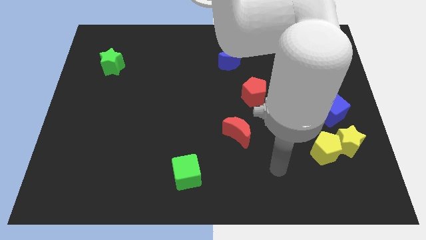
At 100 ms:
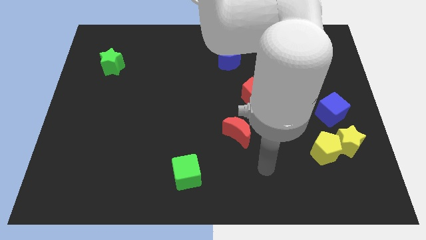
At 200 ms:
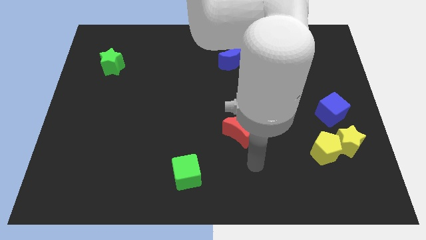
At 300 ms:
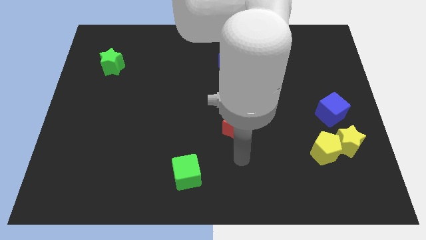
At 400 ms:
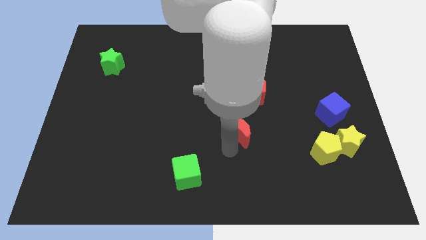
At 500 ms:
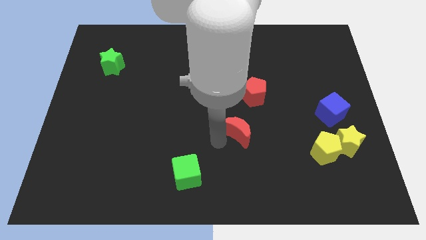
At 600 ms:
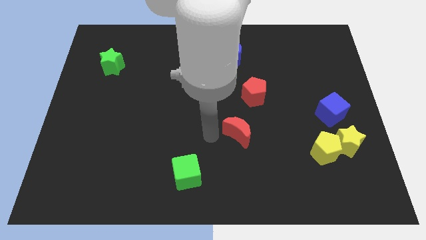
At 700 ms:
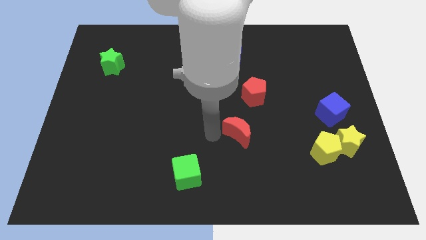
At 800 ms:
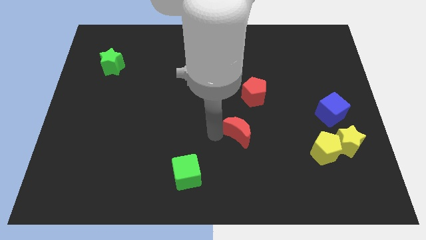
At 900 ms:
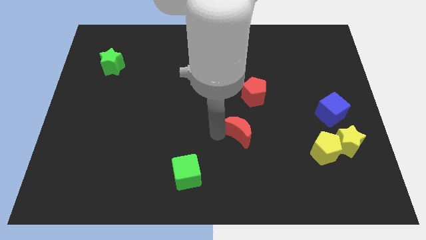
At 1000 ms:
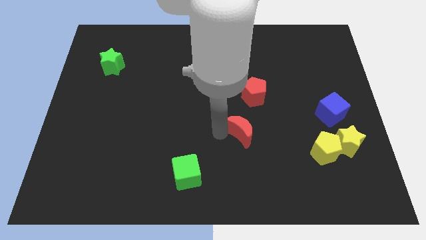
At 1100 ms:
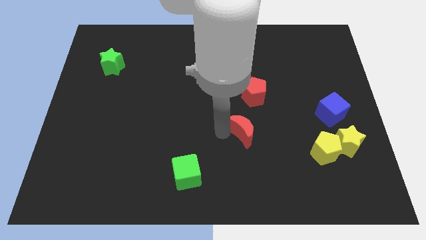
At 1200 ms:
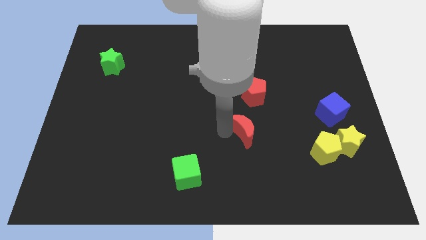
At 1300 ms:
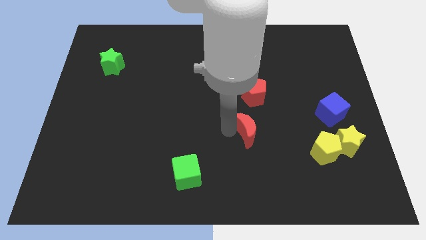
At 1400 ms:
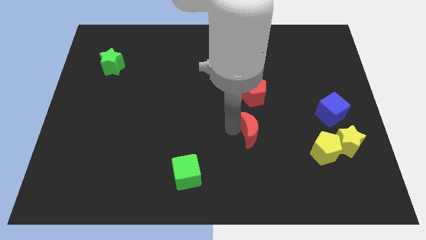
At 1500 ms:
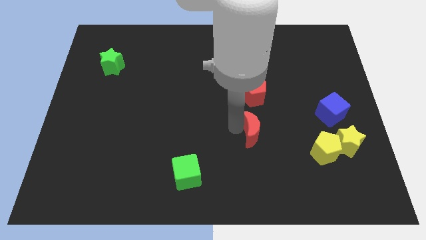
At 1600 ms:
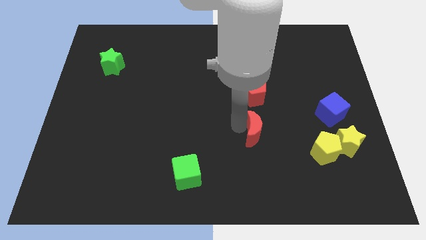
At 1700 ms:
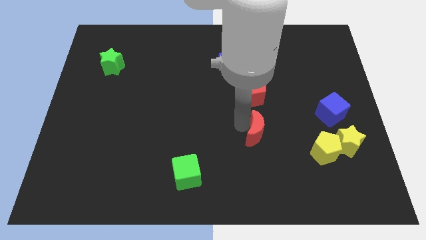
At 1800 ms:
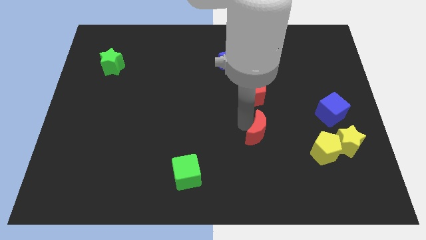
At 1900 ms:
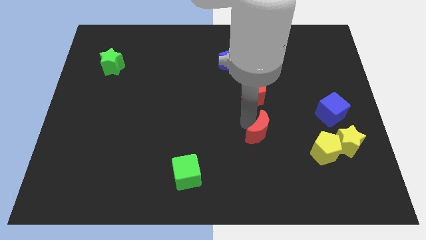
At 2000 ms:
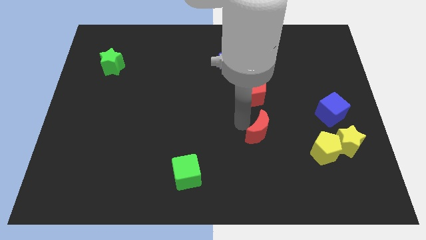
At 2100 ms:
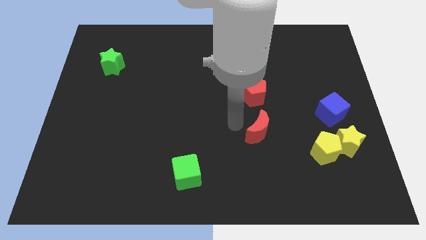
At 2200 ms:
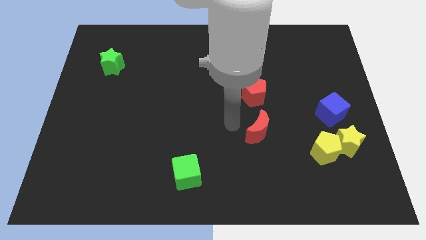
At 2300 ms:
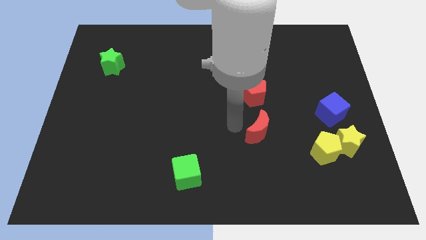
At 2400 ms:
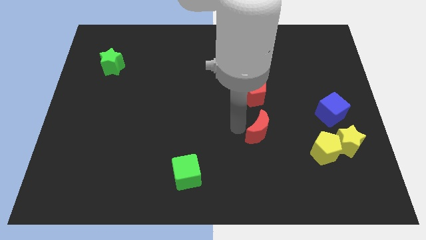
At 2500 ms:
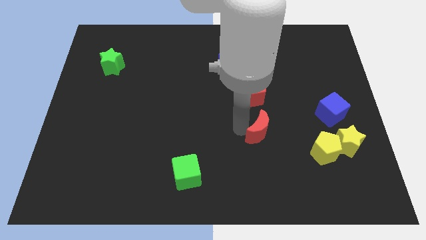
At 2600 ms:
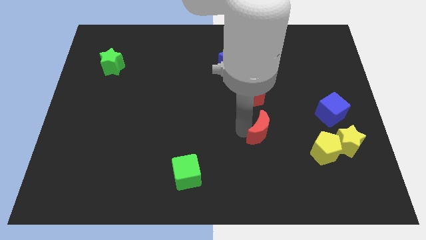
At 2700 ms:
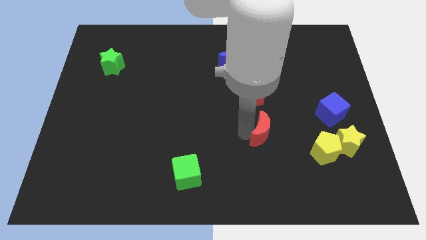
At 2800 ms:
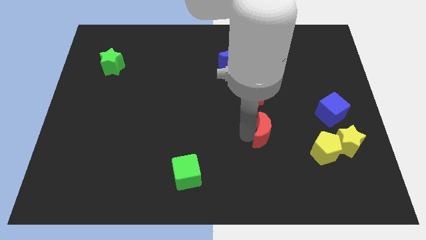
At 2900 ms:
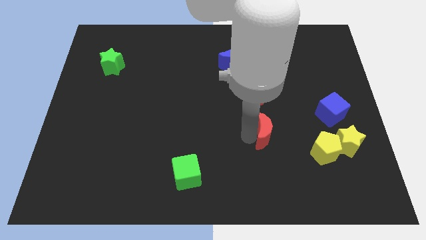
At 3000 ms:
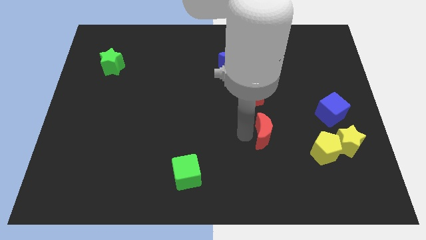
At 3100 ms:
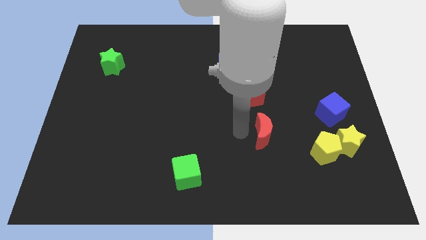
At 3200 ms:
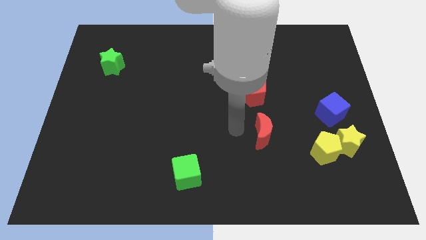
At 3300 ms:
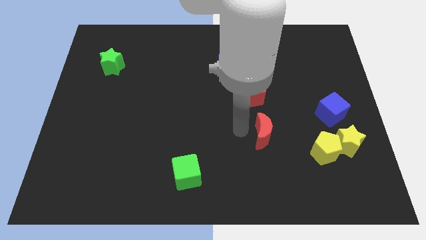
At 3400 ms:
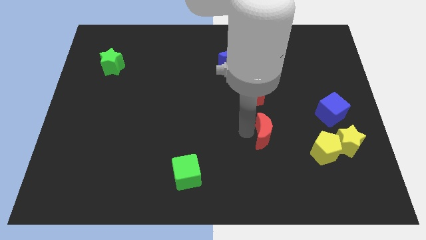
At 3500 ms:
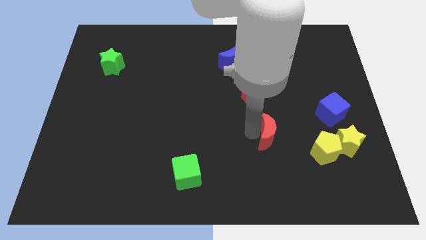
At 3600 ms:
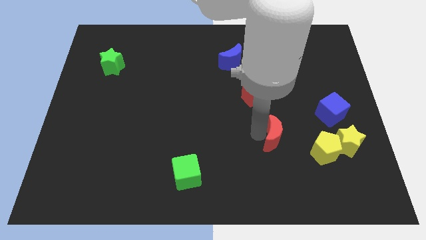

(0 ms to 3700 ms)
slightly push the red moon to the right

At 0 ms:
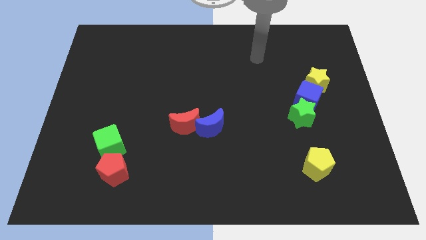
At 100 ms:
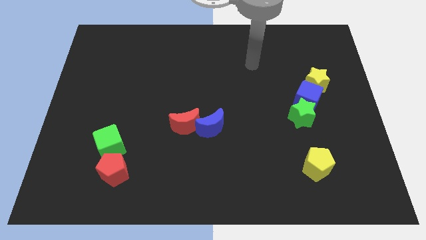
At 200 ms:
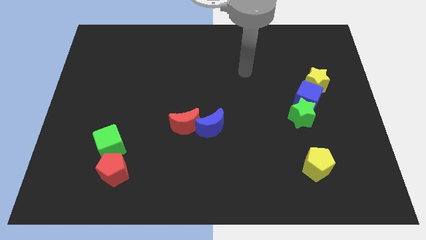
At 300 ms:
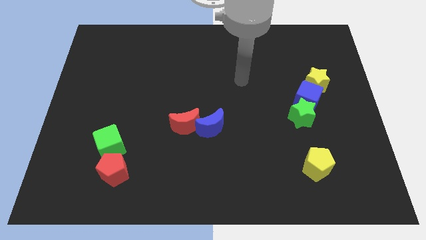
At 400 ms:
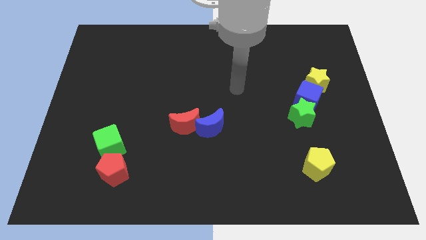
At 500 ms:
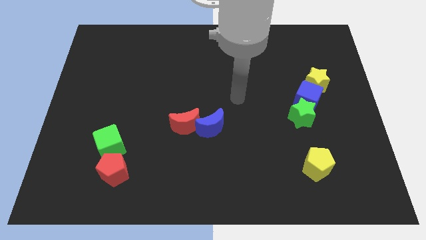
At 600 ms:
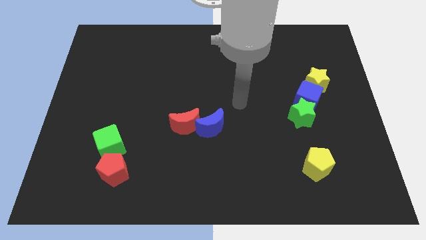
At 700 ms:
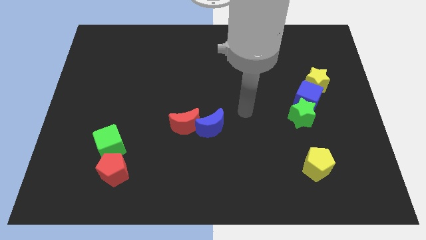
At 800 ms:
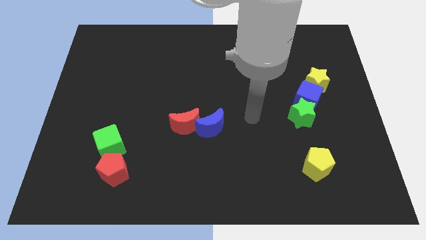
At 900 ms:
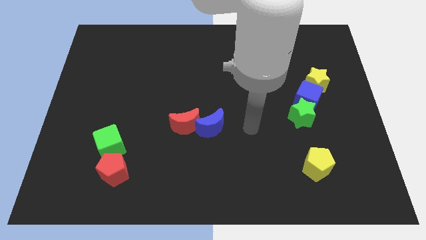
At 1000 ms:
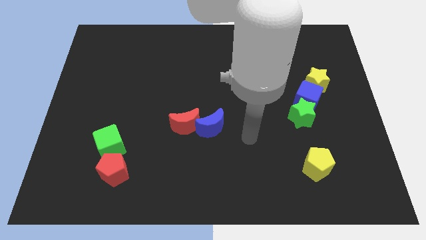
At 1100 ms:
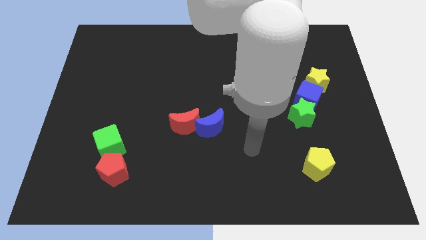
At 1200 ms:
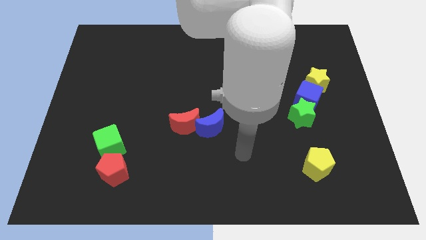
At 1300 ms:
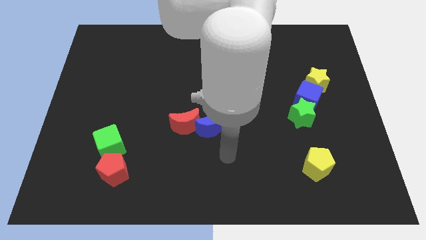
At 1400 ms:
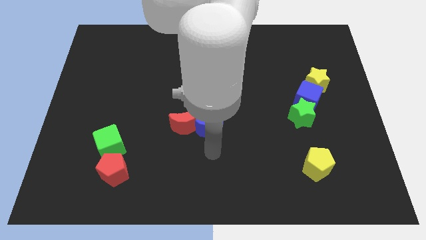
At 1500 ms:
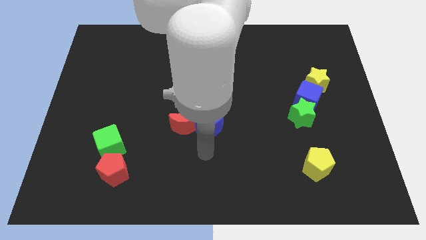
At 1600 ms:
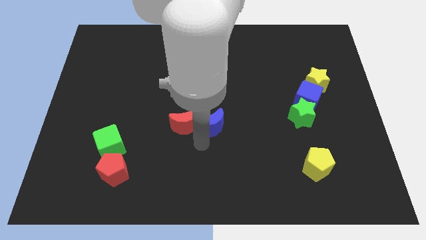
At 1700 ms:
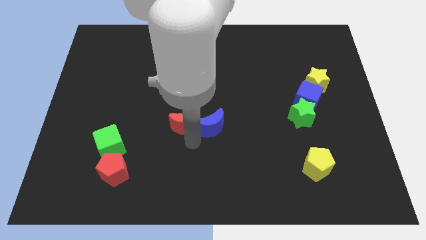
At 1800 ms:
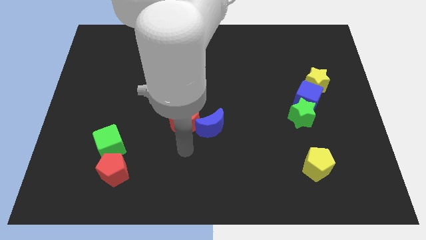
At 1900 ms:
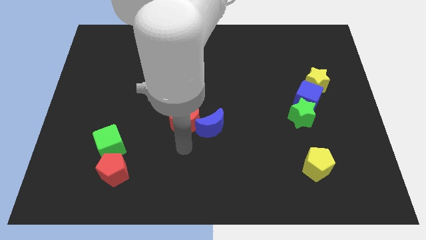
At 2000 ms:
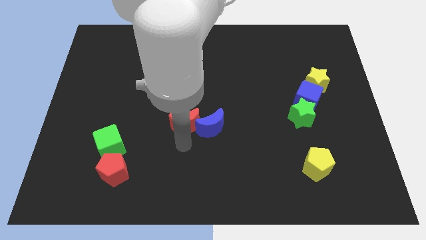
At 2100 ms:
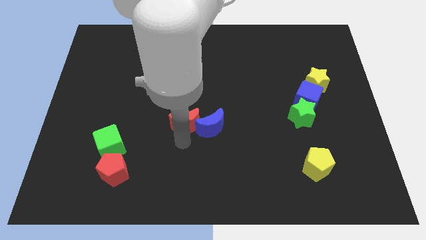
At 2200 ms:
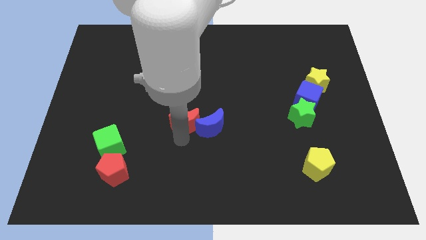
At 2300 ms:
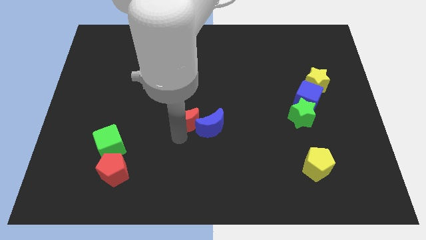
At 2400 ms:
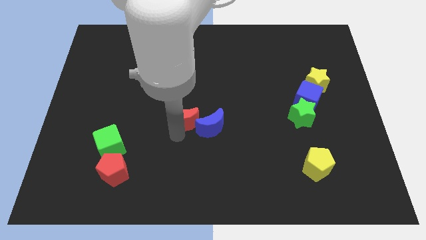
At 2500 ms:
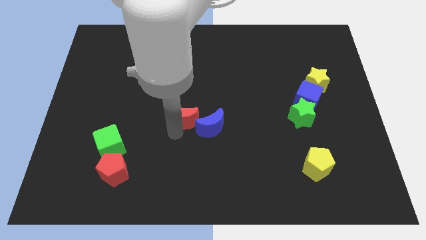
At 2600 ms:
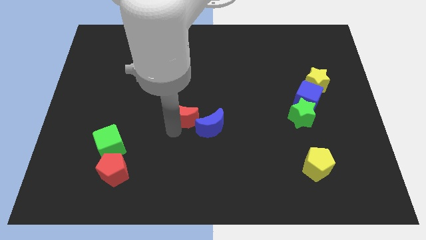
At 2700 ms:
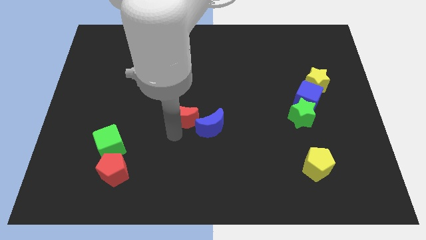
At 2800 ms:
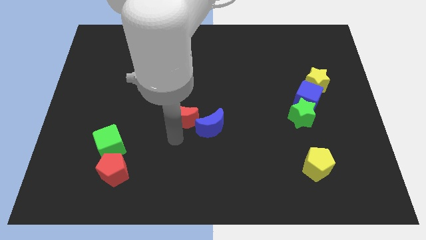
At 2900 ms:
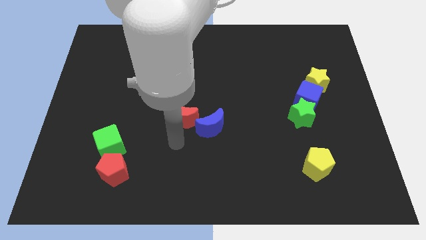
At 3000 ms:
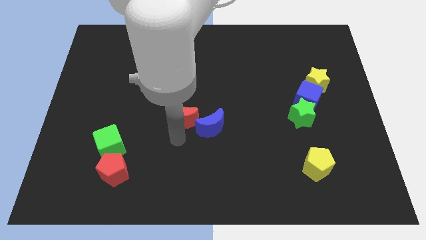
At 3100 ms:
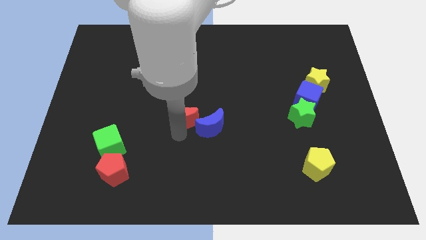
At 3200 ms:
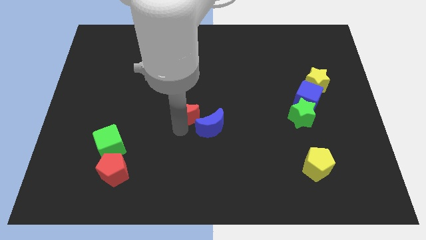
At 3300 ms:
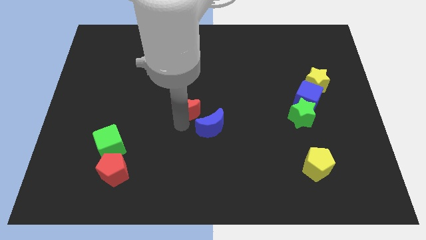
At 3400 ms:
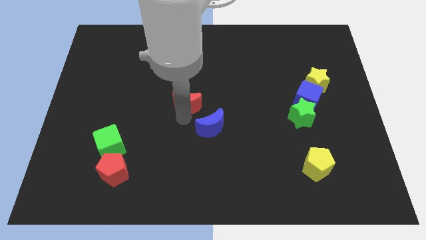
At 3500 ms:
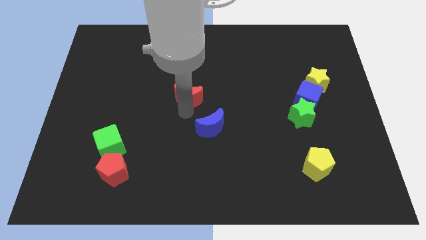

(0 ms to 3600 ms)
move the red moon upwards a little

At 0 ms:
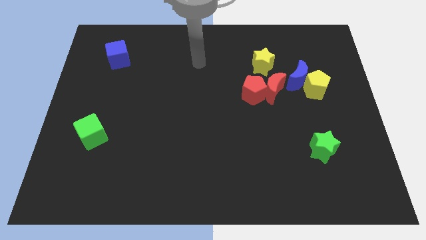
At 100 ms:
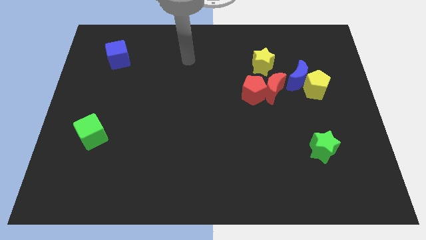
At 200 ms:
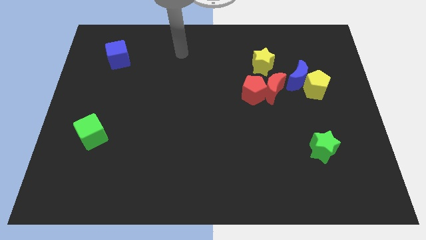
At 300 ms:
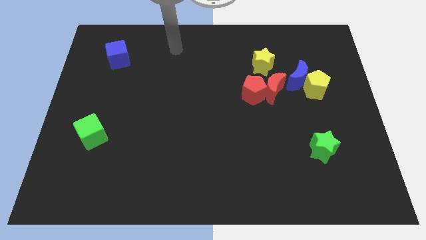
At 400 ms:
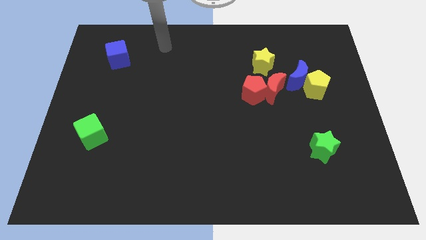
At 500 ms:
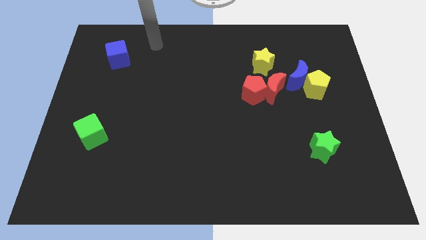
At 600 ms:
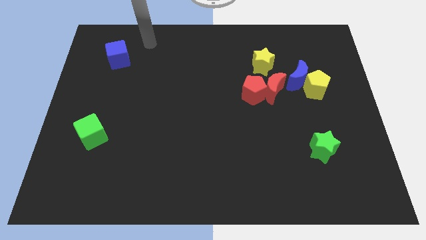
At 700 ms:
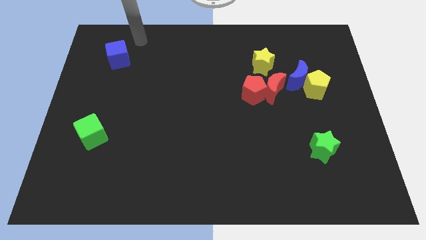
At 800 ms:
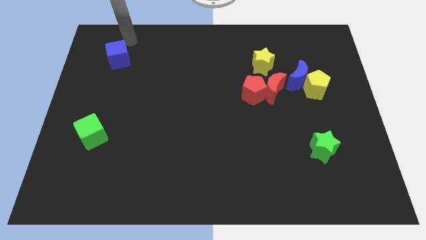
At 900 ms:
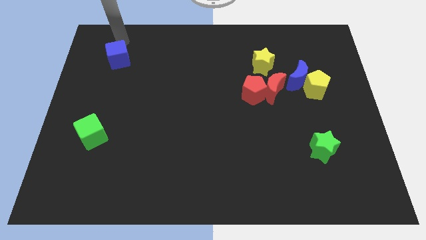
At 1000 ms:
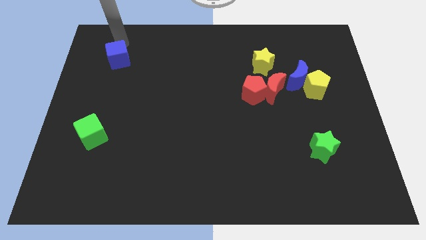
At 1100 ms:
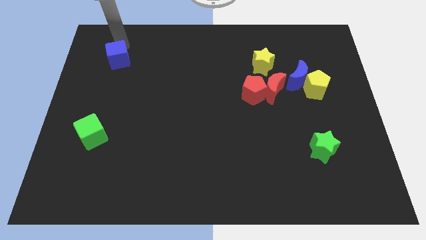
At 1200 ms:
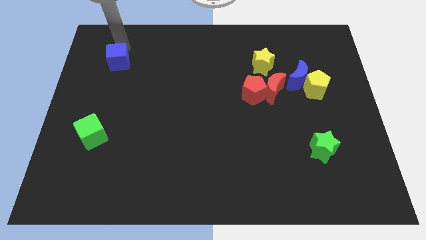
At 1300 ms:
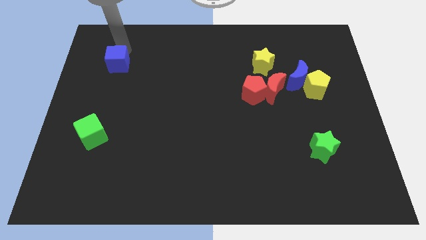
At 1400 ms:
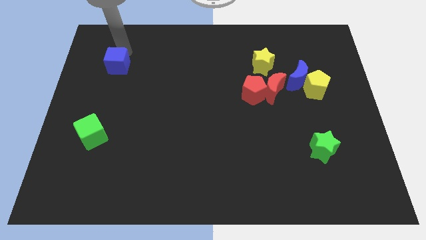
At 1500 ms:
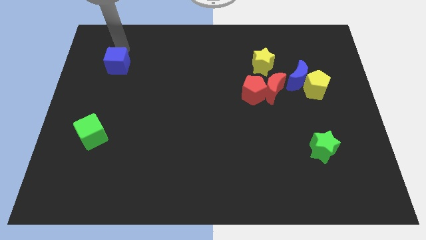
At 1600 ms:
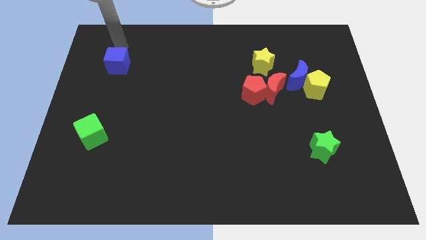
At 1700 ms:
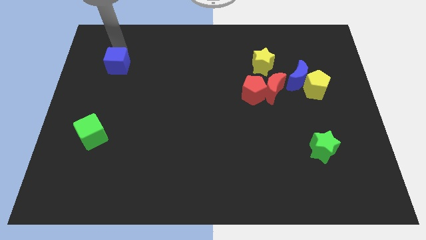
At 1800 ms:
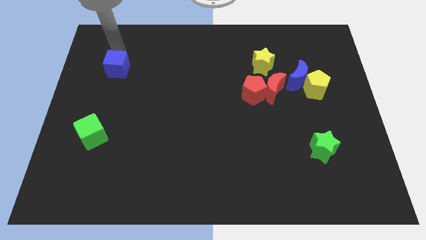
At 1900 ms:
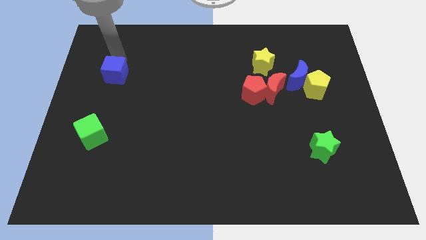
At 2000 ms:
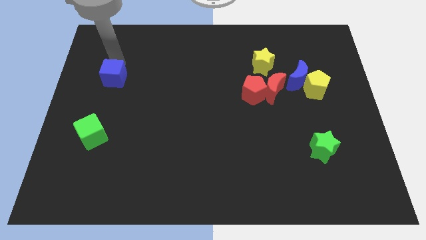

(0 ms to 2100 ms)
slide the blue cube somewhat down
